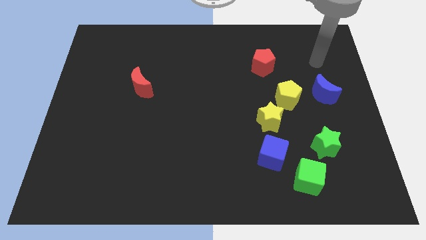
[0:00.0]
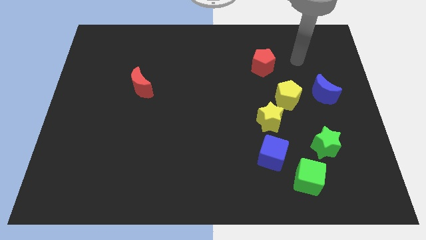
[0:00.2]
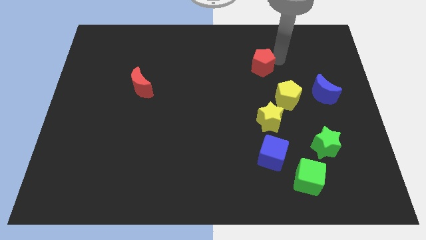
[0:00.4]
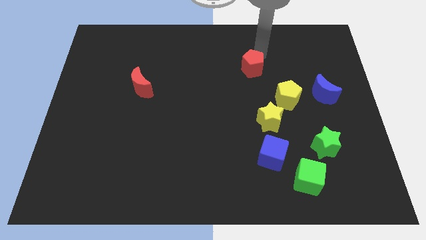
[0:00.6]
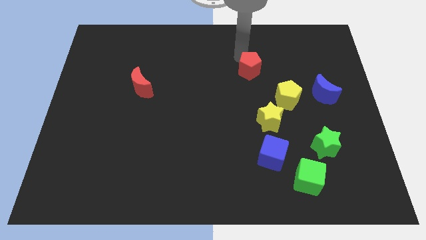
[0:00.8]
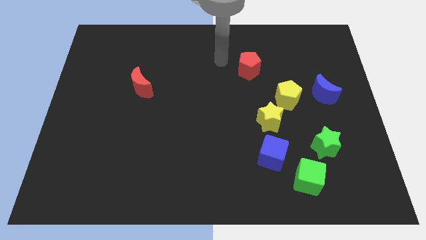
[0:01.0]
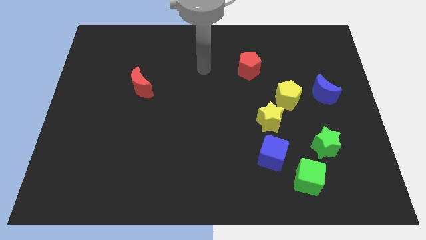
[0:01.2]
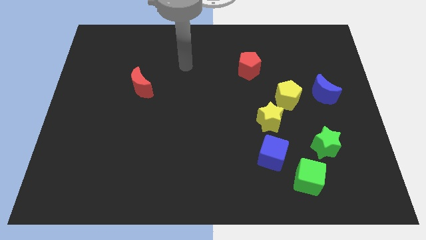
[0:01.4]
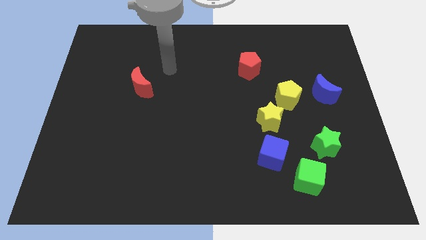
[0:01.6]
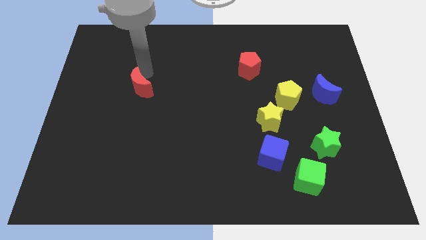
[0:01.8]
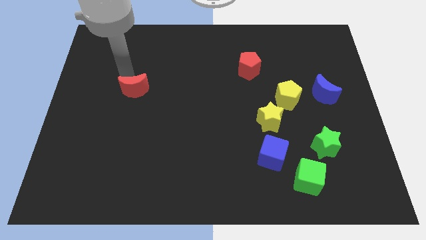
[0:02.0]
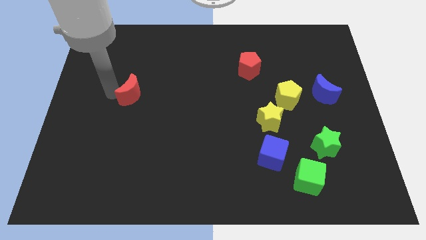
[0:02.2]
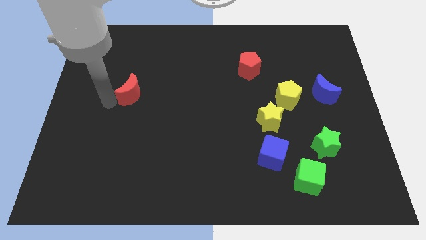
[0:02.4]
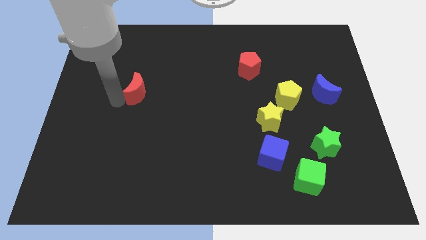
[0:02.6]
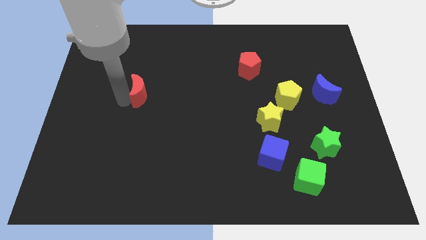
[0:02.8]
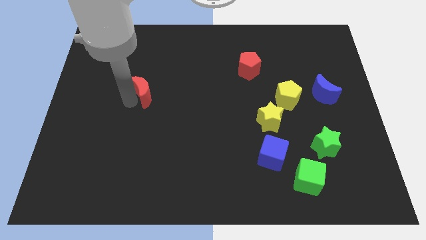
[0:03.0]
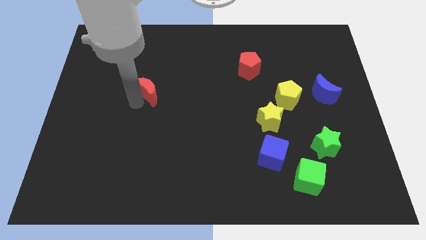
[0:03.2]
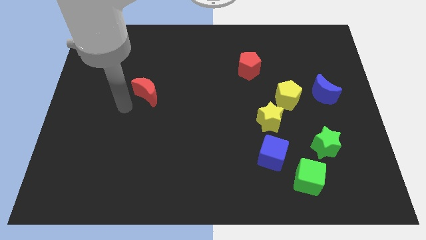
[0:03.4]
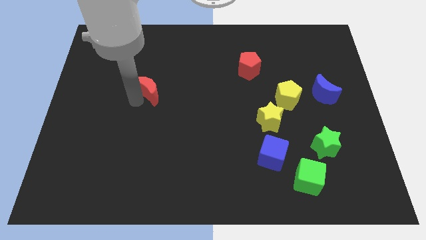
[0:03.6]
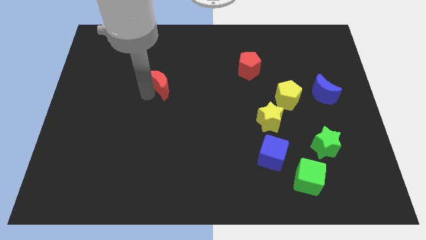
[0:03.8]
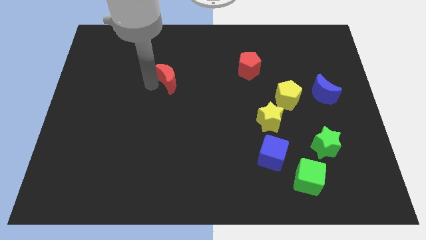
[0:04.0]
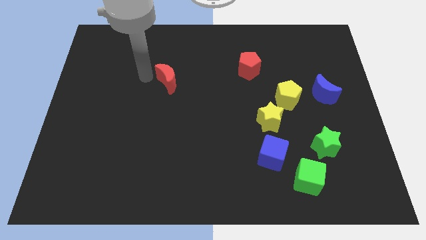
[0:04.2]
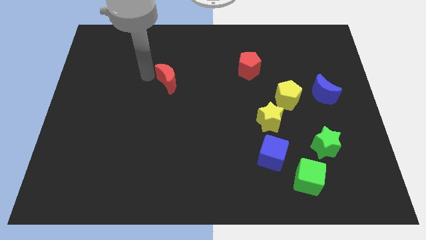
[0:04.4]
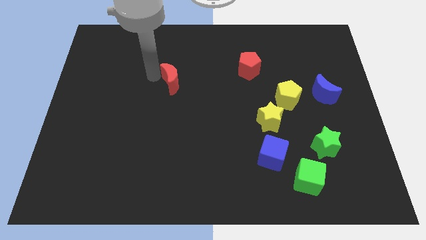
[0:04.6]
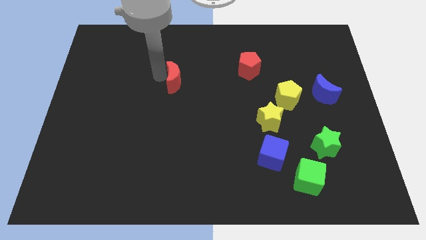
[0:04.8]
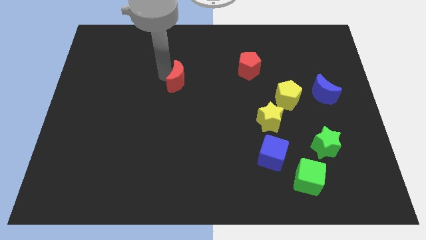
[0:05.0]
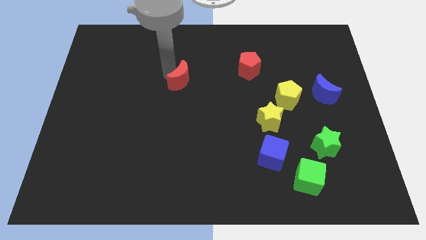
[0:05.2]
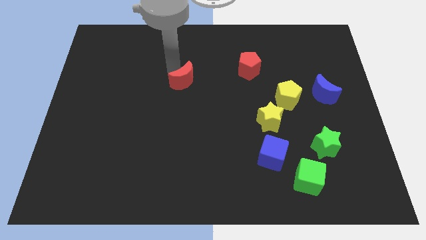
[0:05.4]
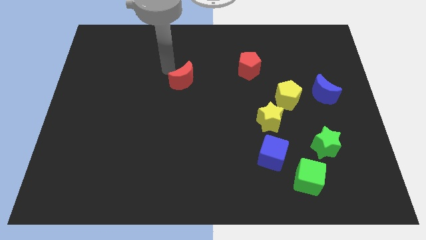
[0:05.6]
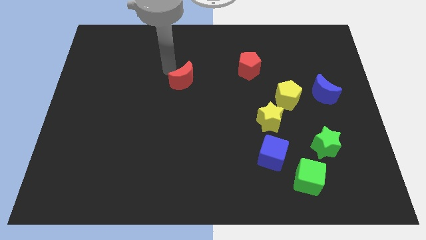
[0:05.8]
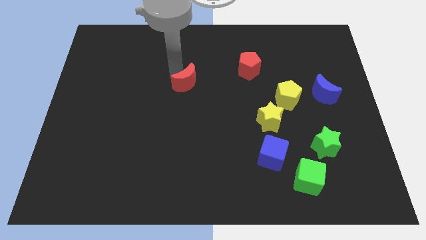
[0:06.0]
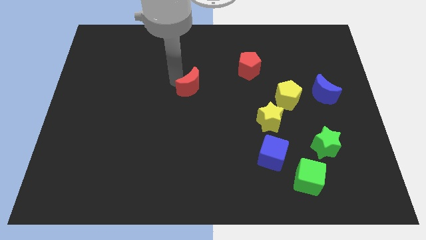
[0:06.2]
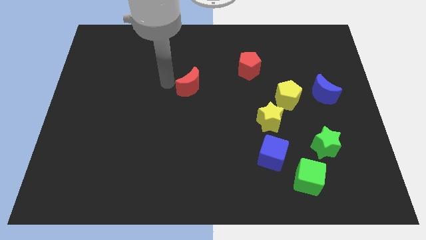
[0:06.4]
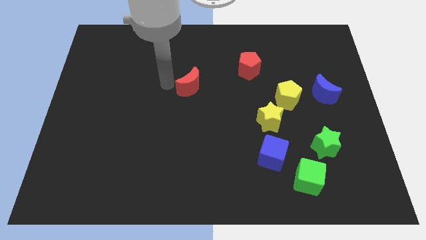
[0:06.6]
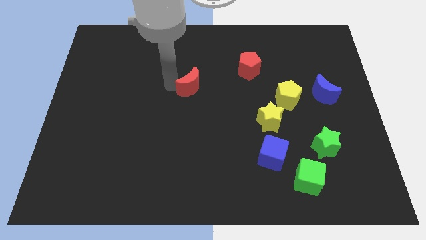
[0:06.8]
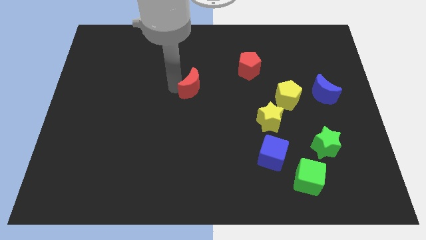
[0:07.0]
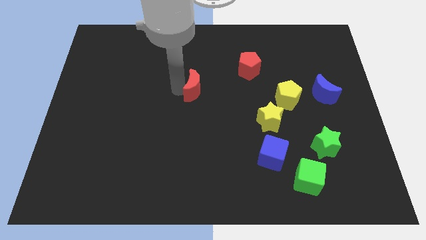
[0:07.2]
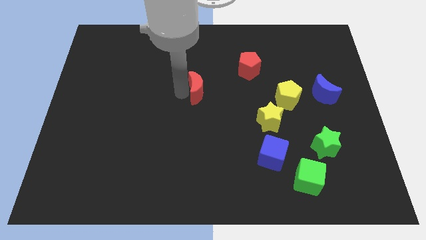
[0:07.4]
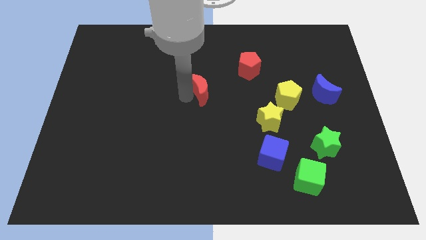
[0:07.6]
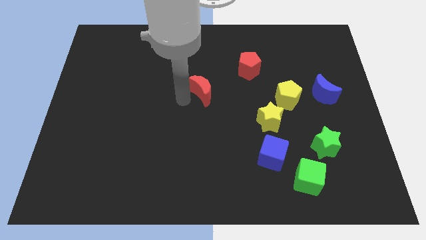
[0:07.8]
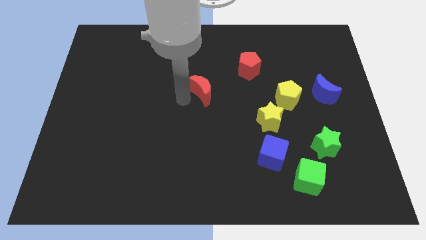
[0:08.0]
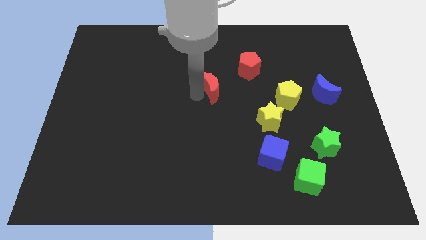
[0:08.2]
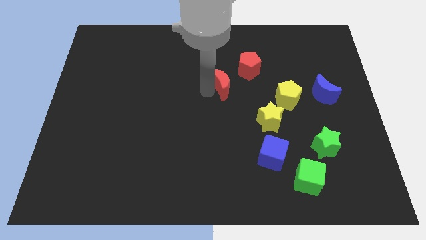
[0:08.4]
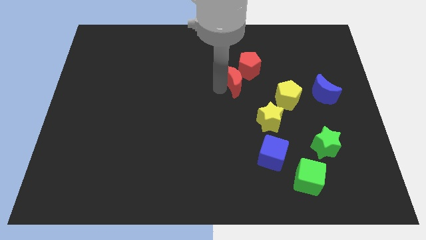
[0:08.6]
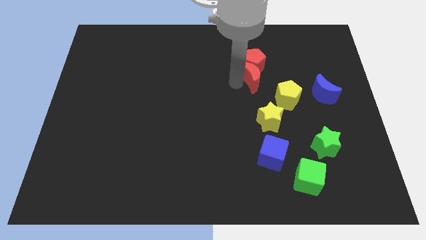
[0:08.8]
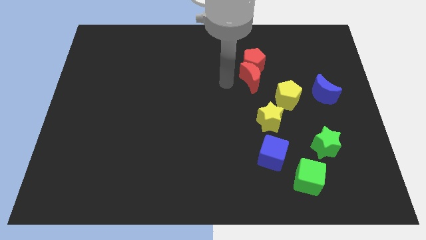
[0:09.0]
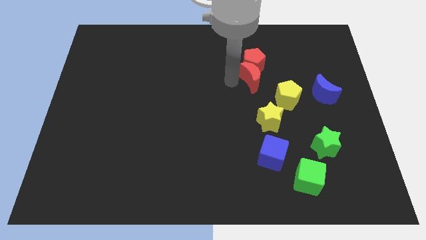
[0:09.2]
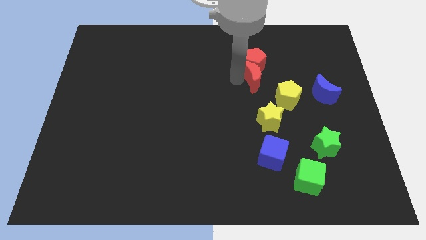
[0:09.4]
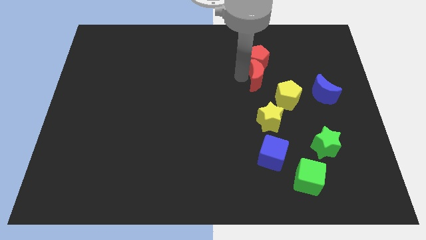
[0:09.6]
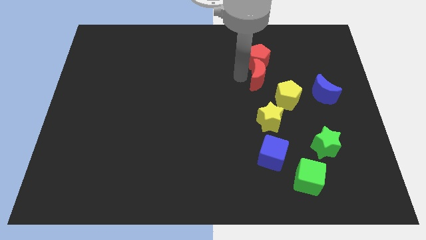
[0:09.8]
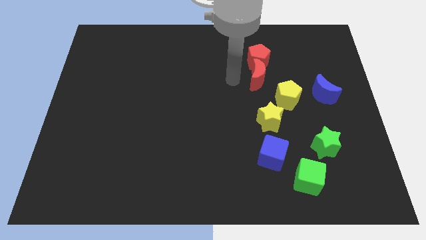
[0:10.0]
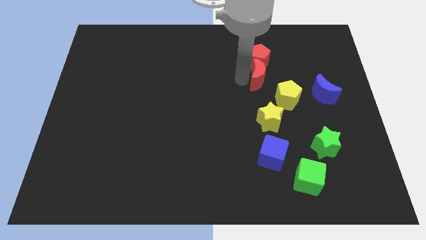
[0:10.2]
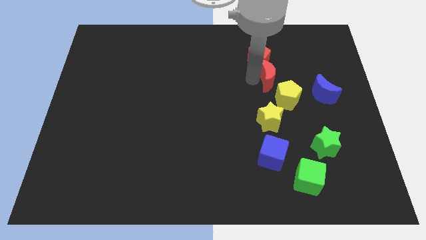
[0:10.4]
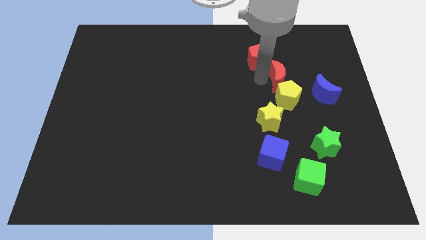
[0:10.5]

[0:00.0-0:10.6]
push the red moon to the top left of the blue moon

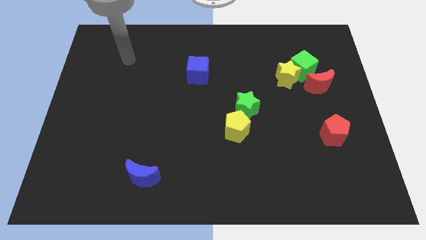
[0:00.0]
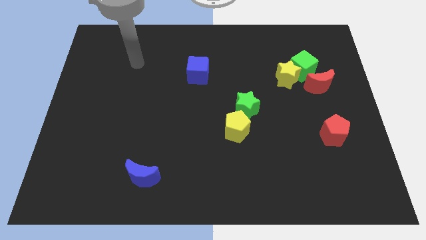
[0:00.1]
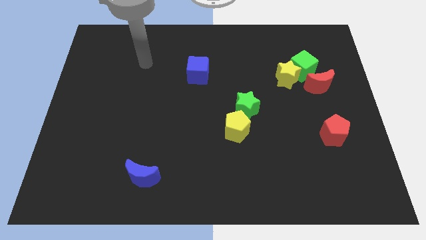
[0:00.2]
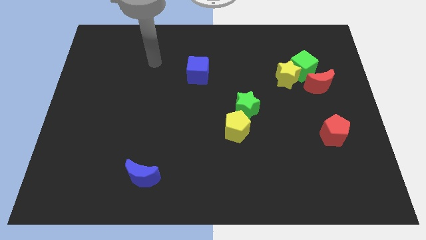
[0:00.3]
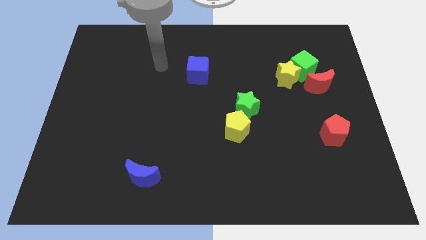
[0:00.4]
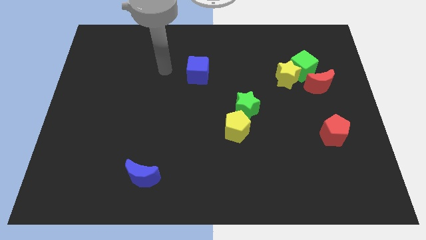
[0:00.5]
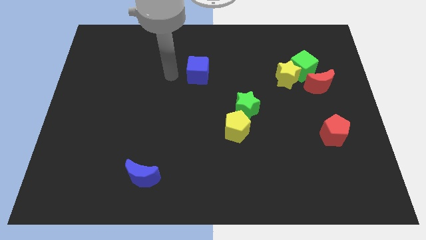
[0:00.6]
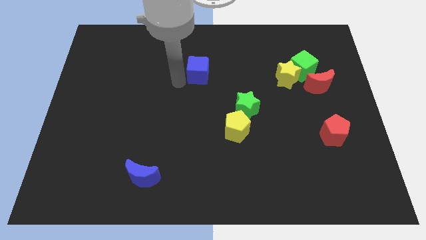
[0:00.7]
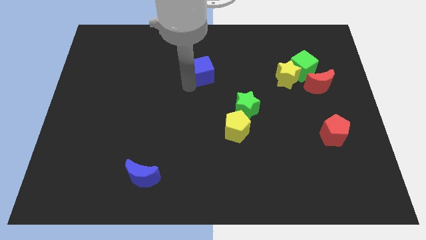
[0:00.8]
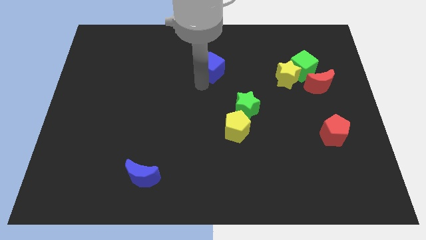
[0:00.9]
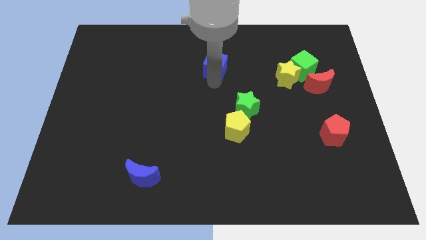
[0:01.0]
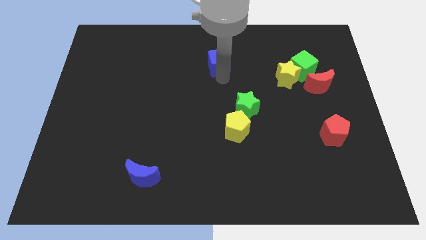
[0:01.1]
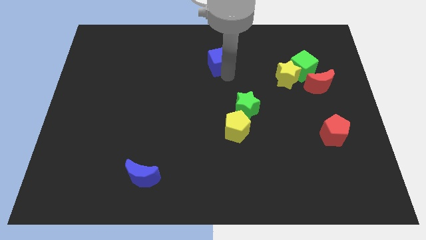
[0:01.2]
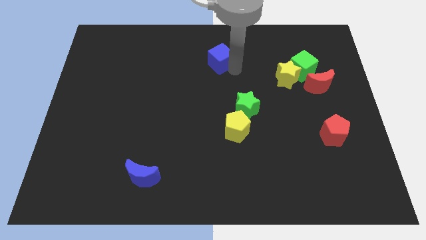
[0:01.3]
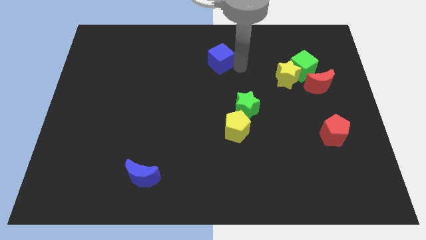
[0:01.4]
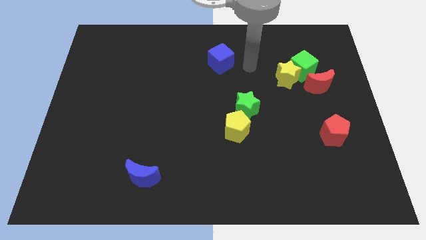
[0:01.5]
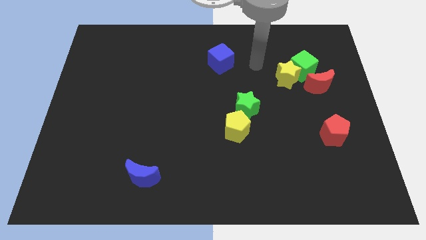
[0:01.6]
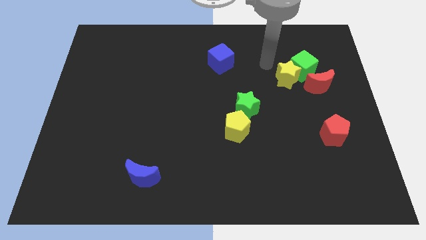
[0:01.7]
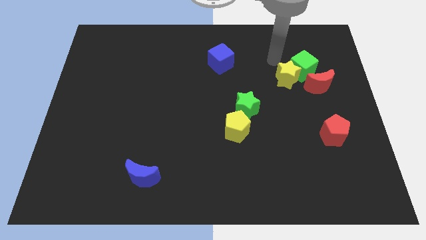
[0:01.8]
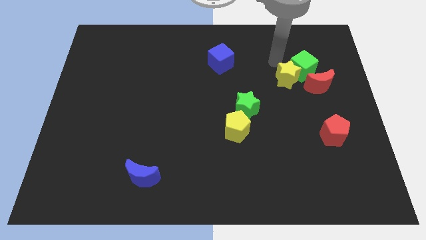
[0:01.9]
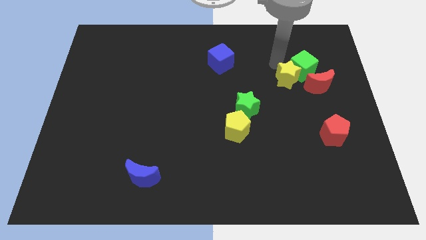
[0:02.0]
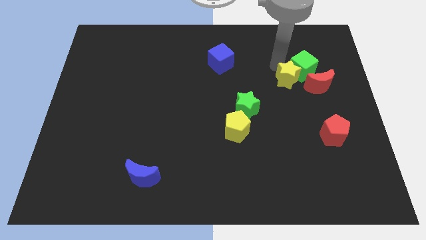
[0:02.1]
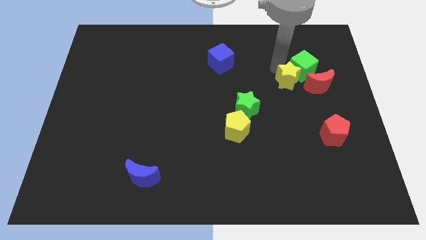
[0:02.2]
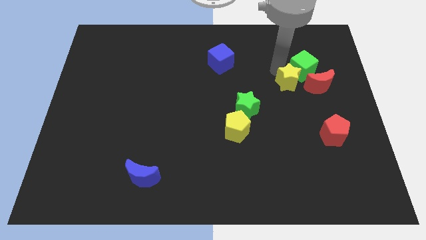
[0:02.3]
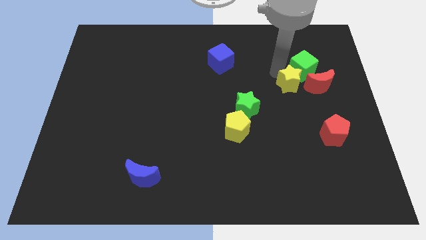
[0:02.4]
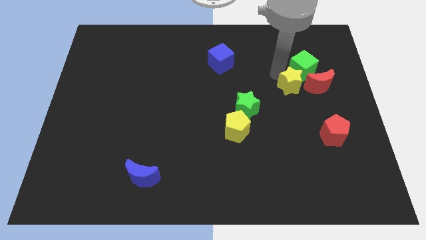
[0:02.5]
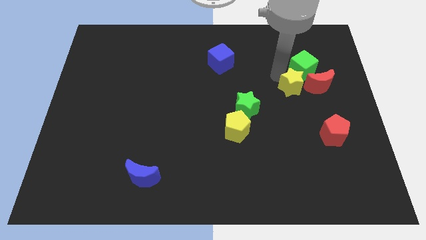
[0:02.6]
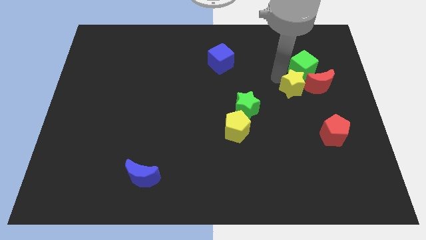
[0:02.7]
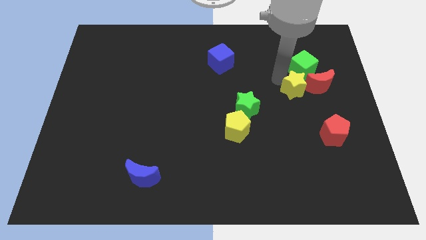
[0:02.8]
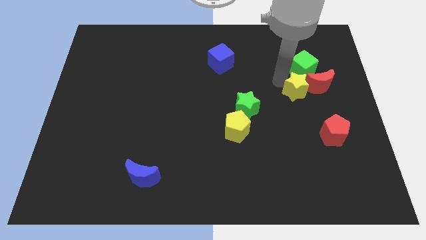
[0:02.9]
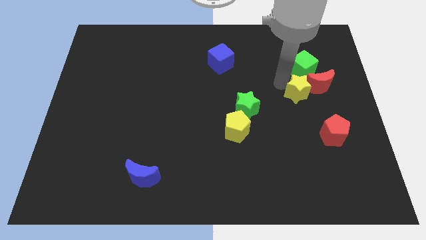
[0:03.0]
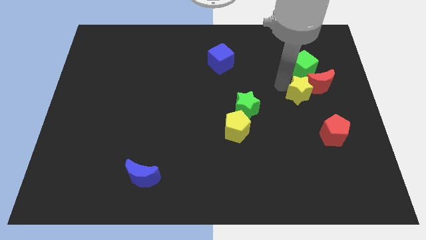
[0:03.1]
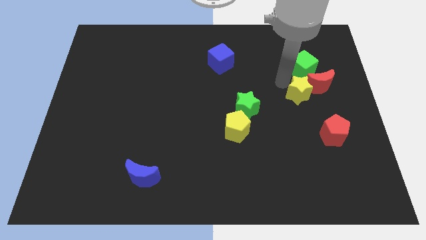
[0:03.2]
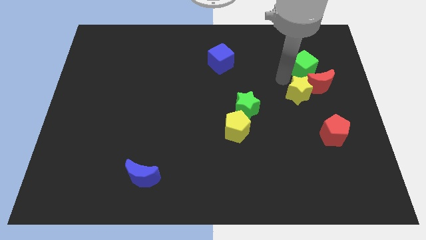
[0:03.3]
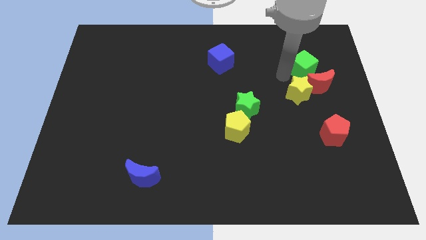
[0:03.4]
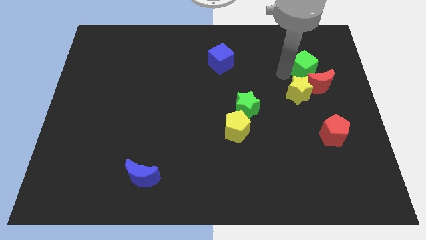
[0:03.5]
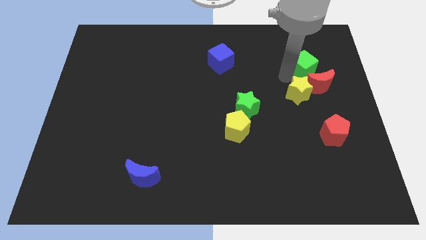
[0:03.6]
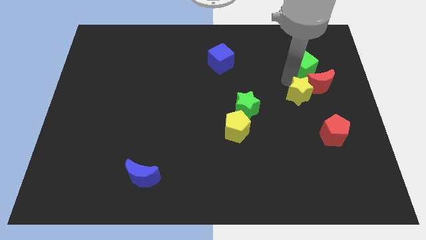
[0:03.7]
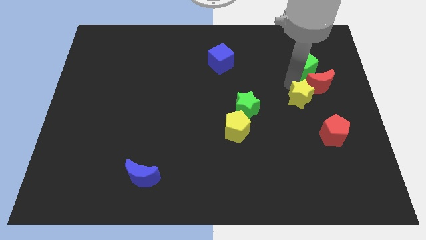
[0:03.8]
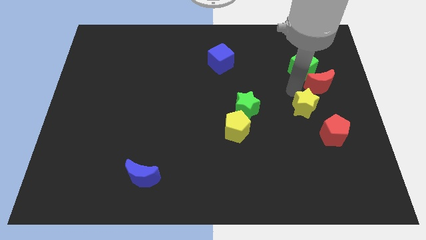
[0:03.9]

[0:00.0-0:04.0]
push the yellow star below the red moon
